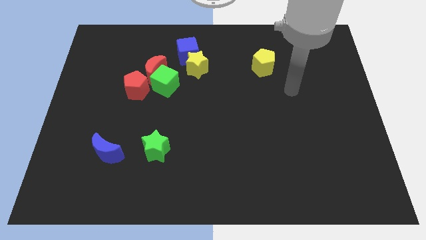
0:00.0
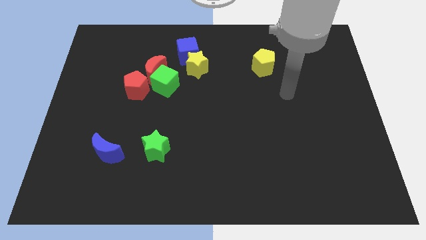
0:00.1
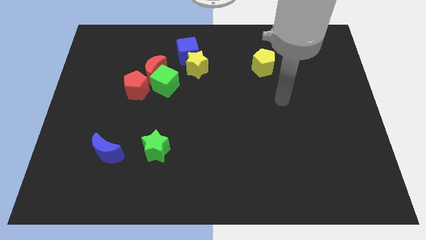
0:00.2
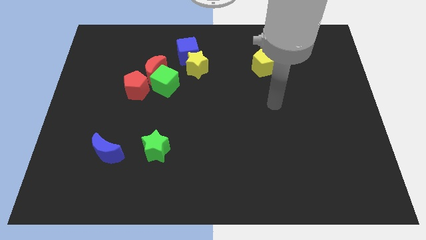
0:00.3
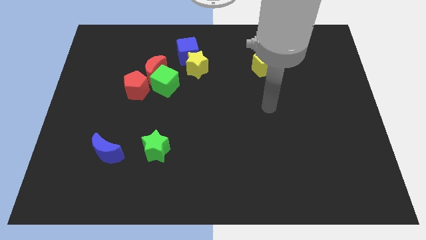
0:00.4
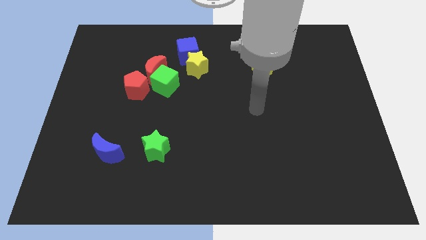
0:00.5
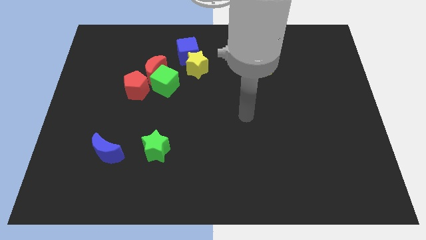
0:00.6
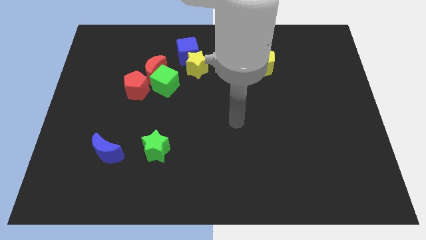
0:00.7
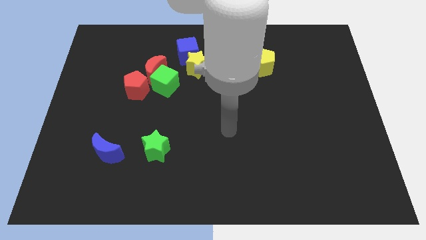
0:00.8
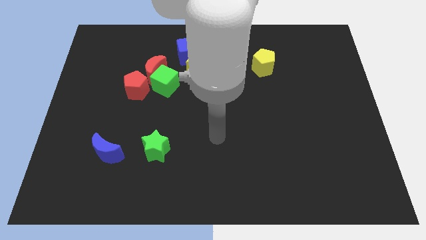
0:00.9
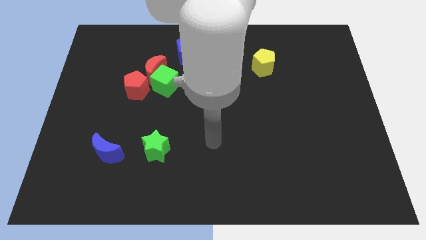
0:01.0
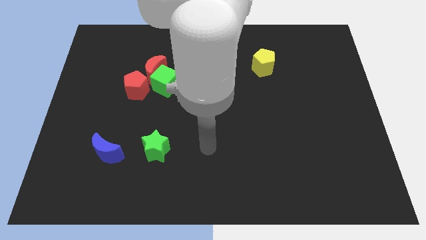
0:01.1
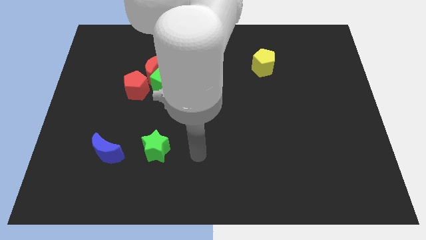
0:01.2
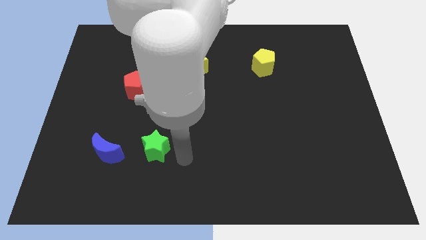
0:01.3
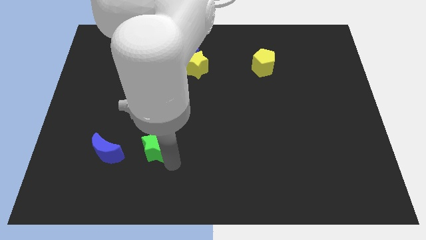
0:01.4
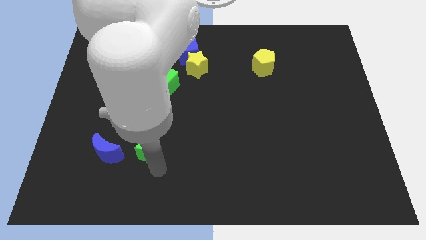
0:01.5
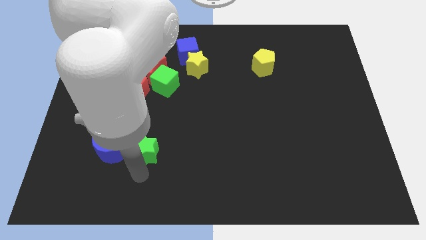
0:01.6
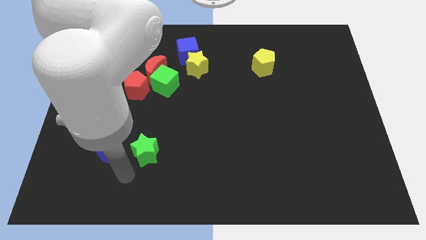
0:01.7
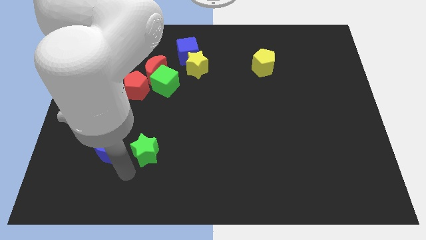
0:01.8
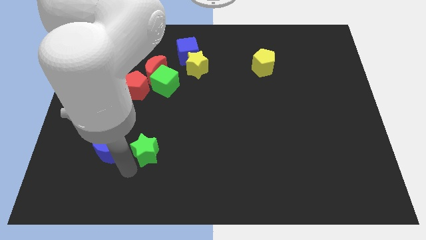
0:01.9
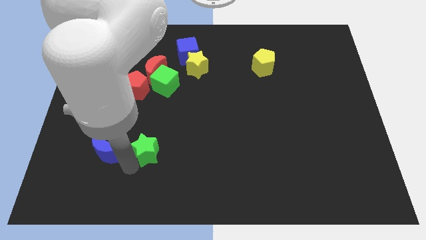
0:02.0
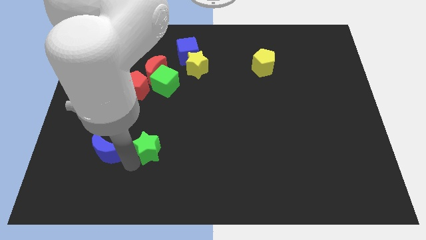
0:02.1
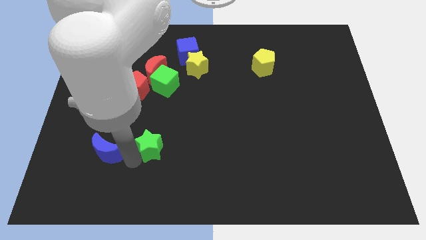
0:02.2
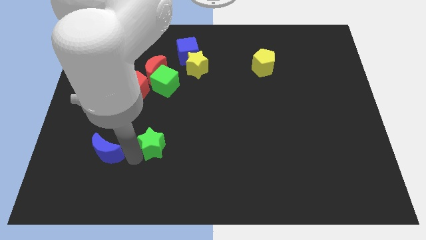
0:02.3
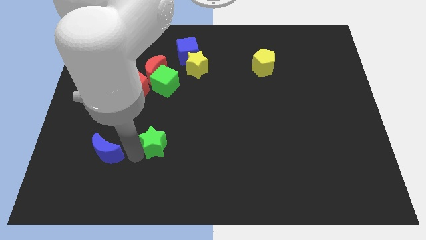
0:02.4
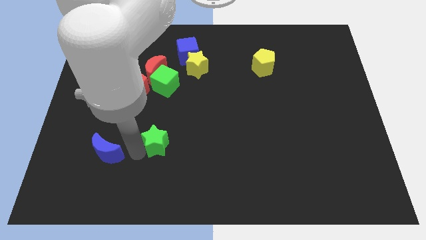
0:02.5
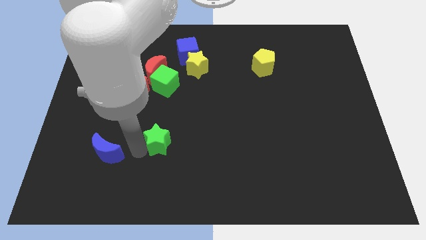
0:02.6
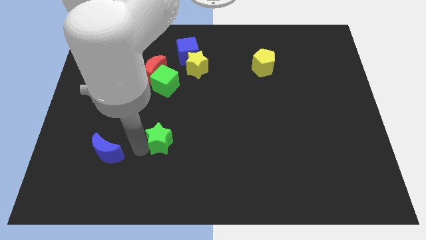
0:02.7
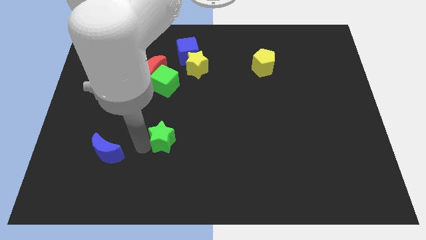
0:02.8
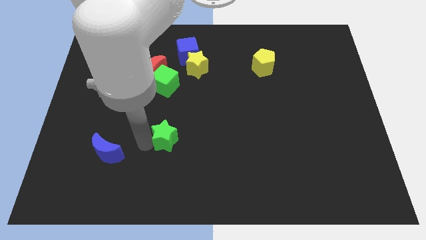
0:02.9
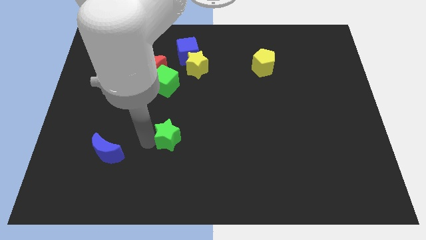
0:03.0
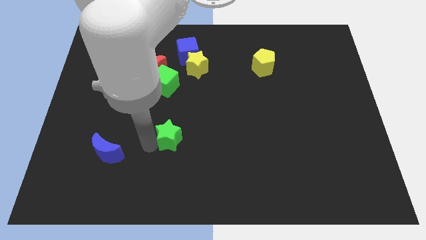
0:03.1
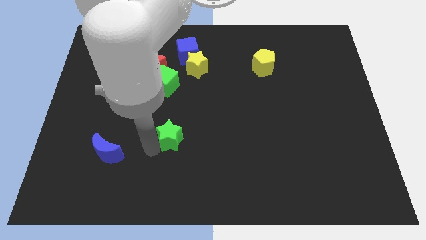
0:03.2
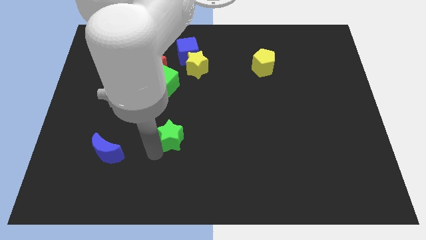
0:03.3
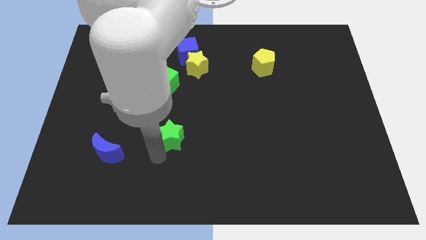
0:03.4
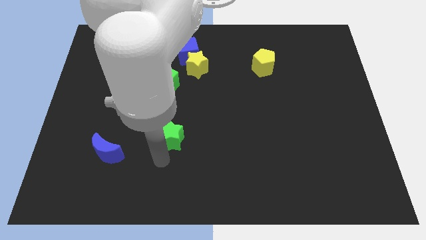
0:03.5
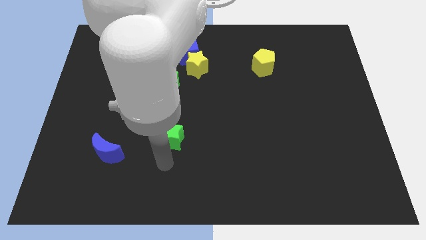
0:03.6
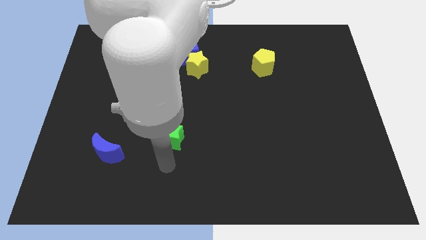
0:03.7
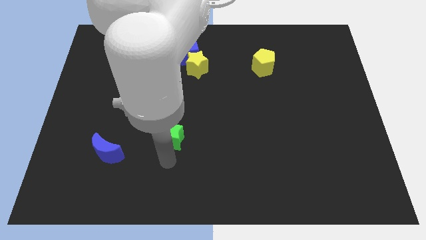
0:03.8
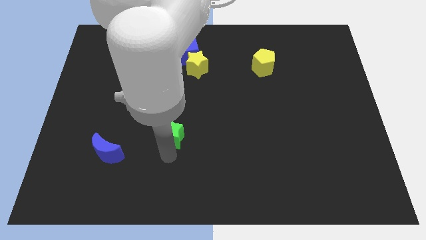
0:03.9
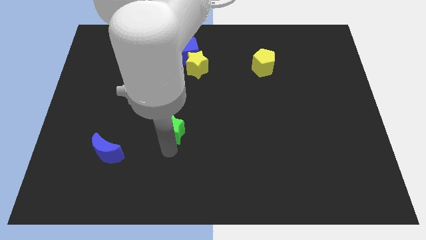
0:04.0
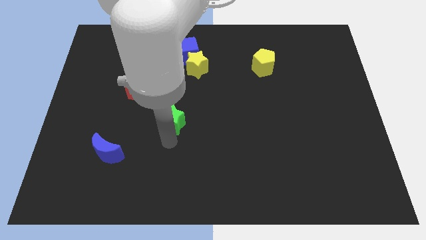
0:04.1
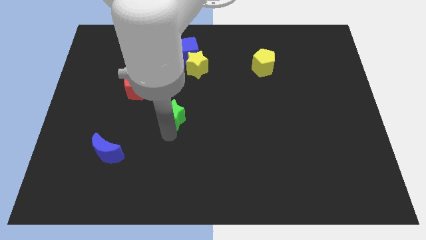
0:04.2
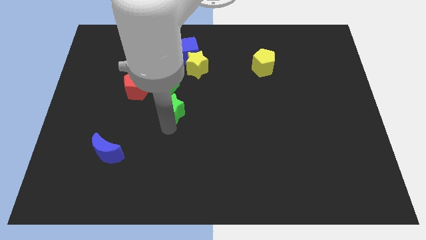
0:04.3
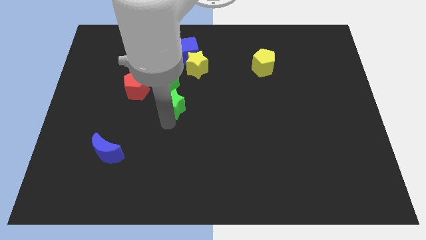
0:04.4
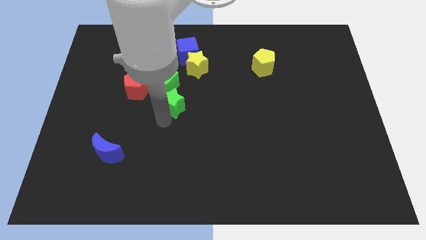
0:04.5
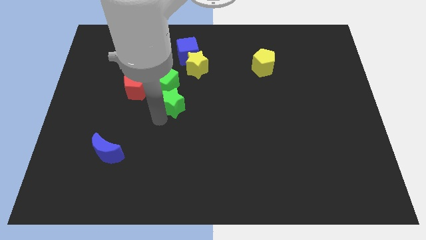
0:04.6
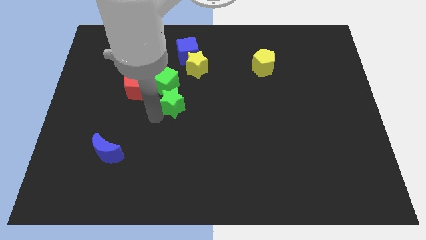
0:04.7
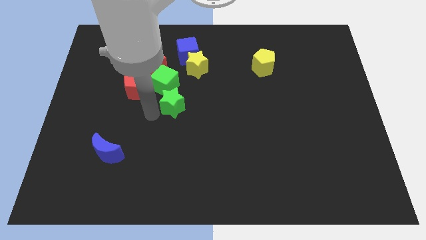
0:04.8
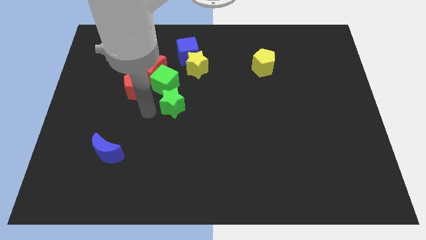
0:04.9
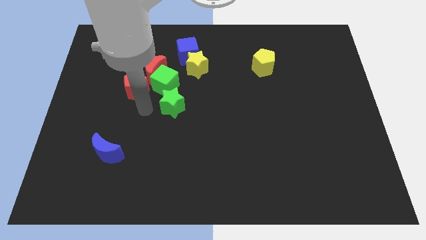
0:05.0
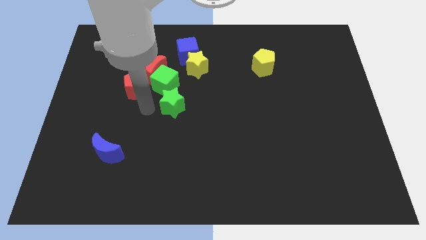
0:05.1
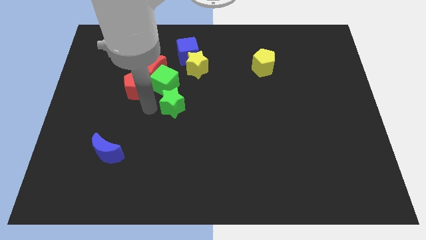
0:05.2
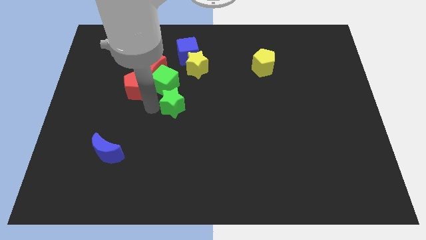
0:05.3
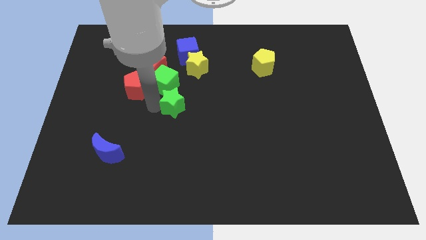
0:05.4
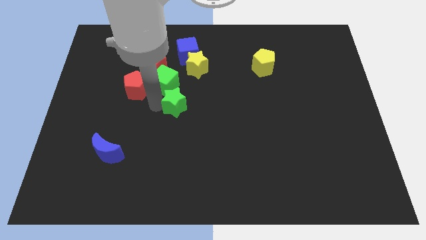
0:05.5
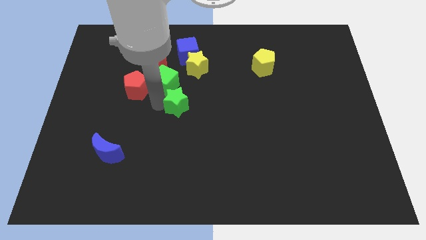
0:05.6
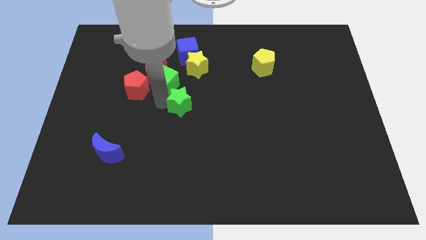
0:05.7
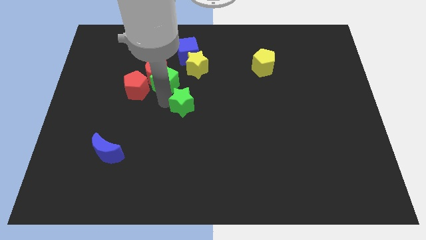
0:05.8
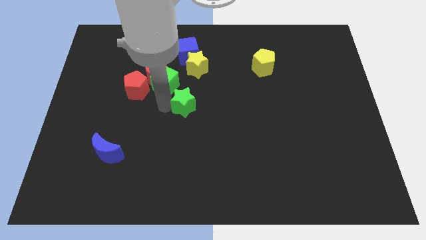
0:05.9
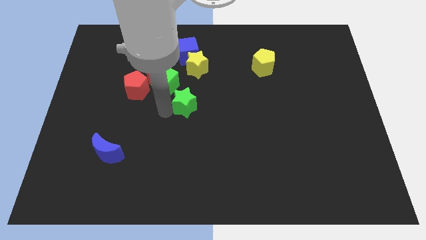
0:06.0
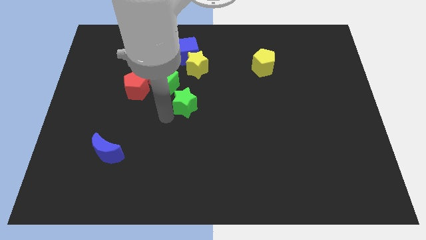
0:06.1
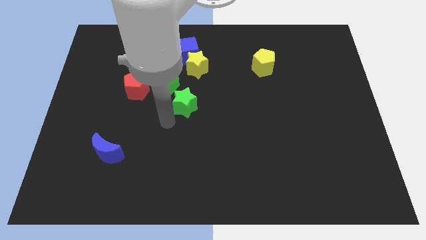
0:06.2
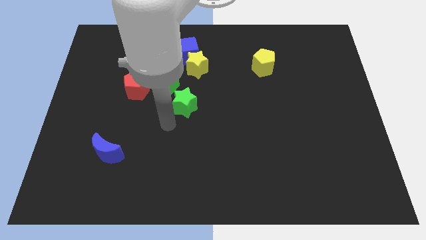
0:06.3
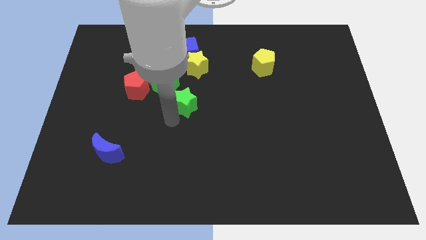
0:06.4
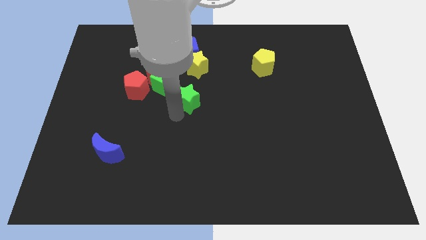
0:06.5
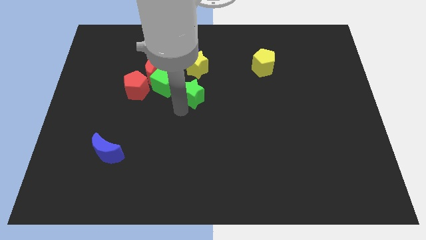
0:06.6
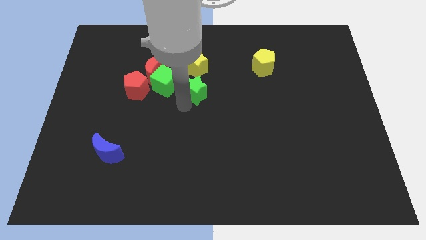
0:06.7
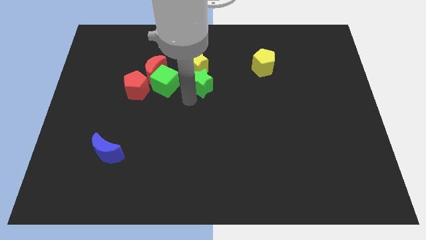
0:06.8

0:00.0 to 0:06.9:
put the green star just right of the red moon
